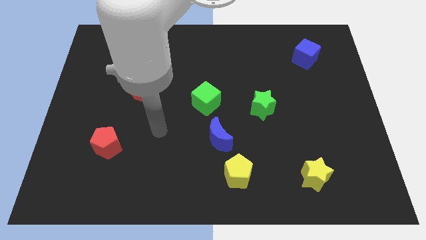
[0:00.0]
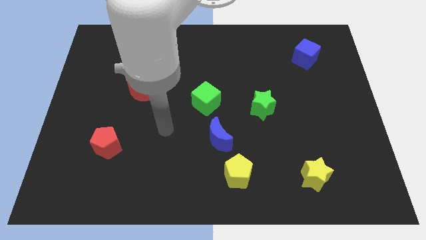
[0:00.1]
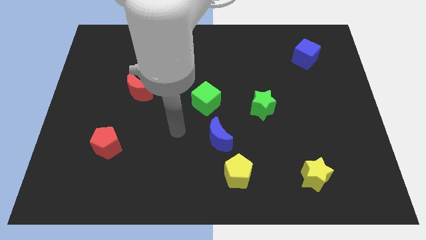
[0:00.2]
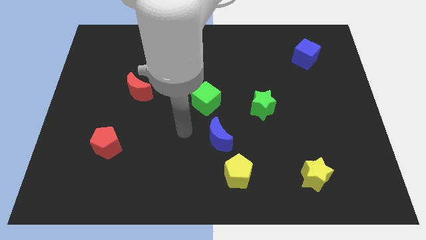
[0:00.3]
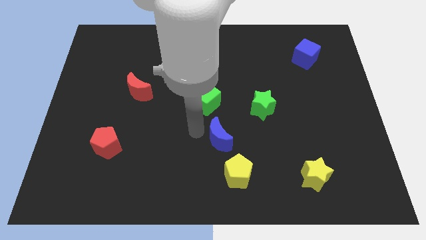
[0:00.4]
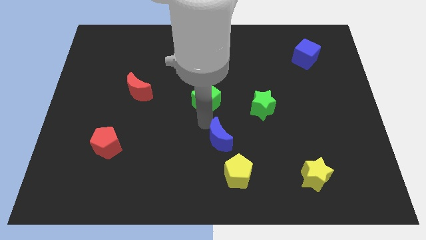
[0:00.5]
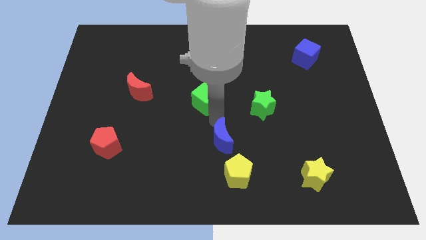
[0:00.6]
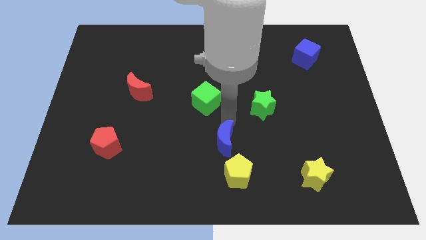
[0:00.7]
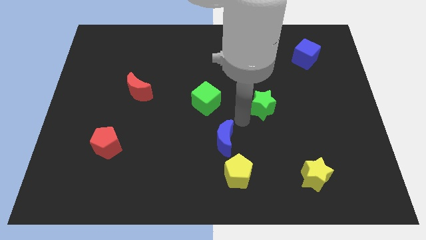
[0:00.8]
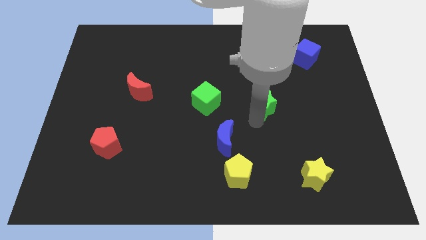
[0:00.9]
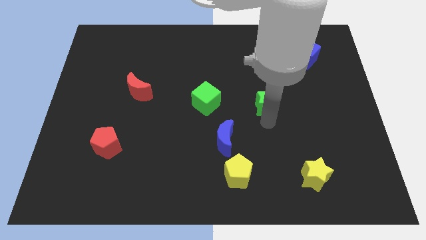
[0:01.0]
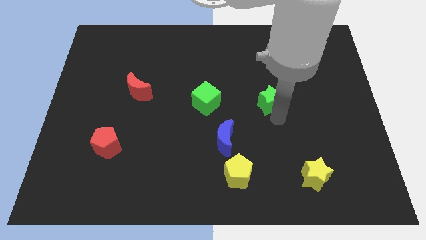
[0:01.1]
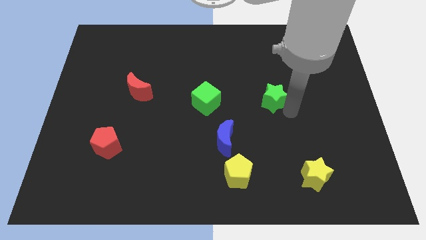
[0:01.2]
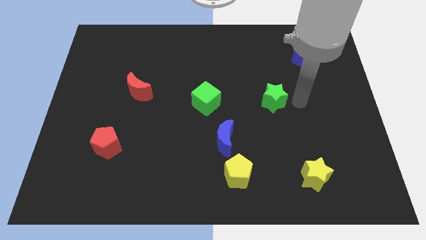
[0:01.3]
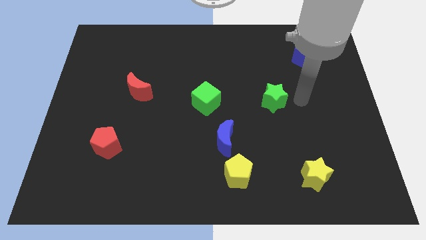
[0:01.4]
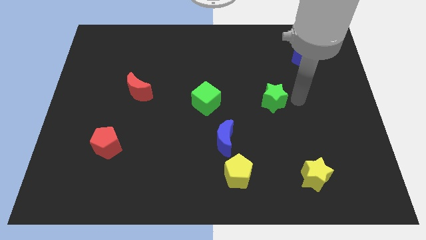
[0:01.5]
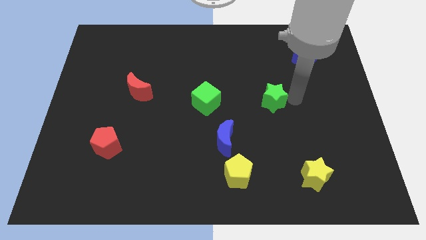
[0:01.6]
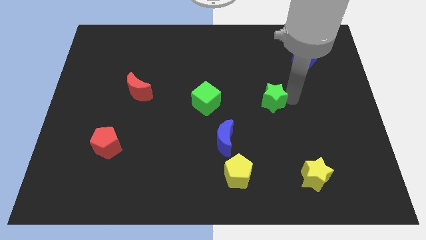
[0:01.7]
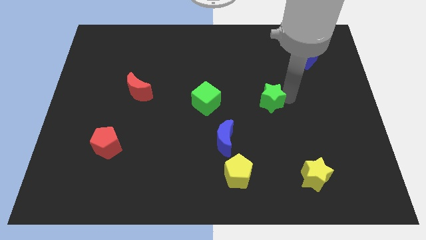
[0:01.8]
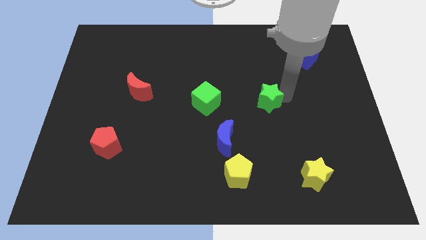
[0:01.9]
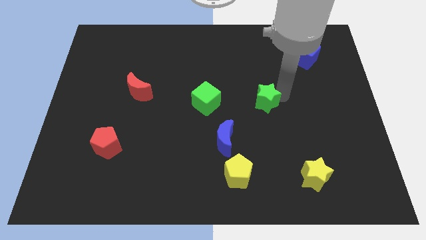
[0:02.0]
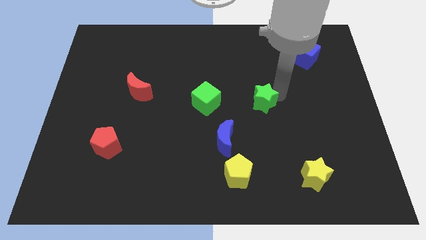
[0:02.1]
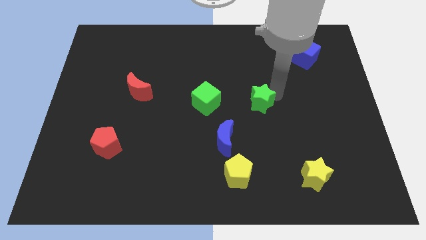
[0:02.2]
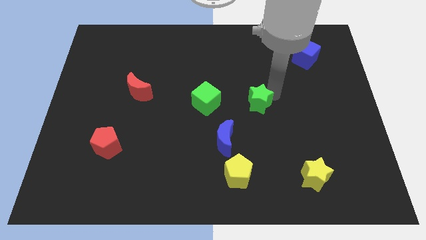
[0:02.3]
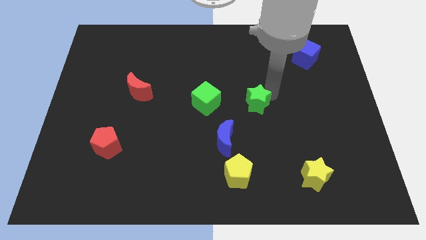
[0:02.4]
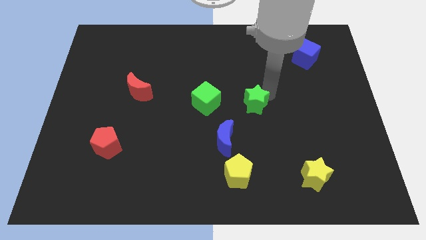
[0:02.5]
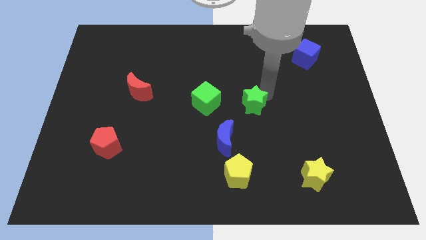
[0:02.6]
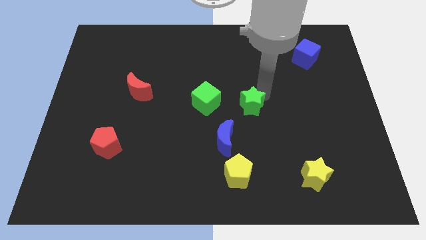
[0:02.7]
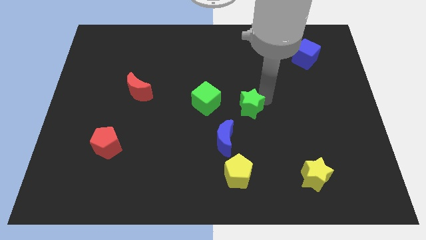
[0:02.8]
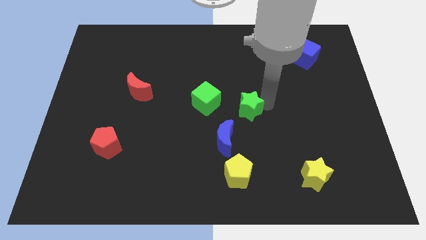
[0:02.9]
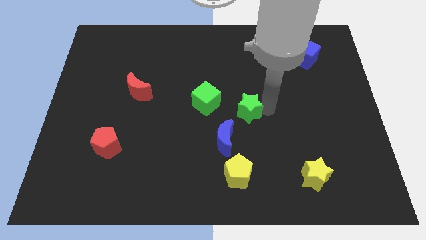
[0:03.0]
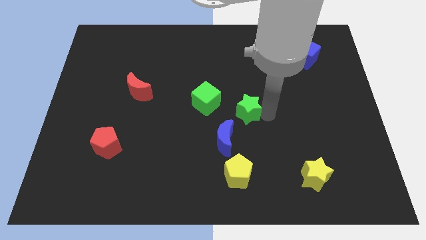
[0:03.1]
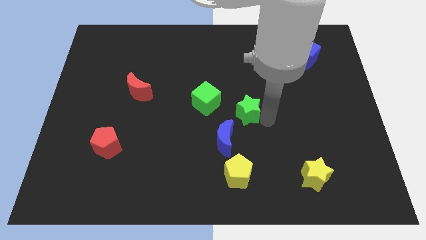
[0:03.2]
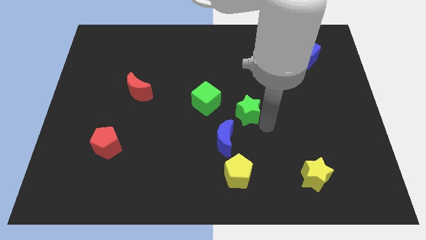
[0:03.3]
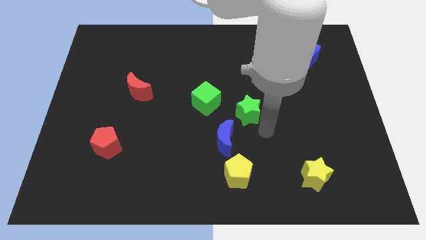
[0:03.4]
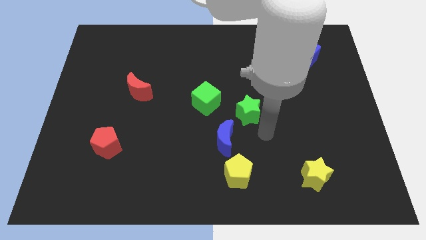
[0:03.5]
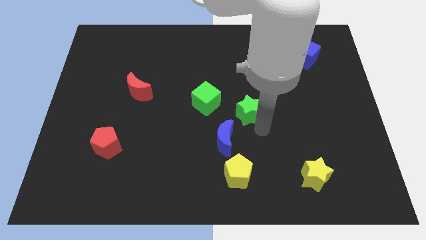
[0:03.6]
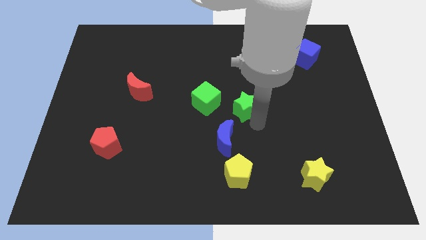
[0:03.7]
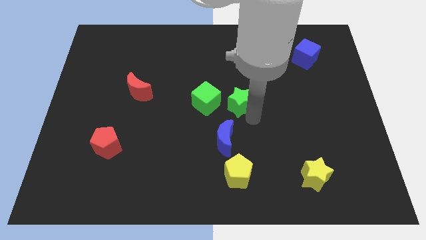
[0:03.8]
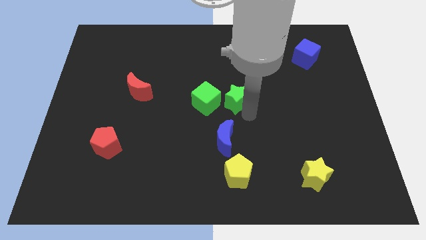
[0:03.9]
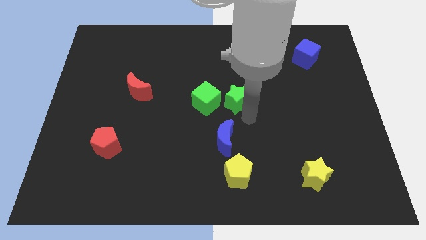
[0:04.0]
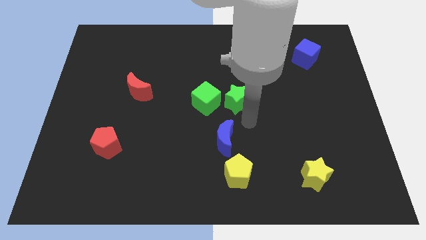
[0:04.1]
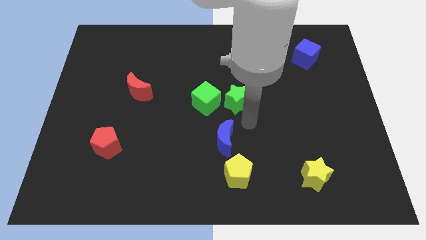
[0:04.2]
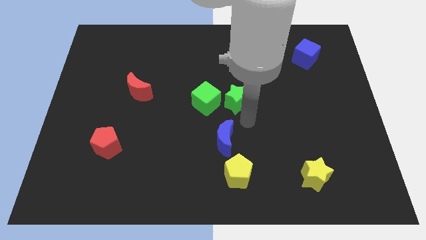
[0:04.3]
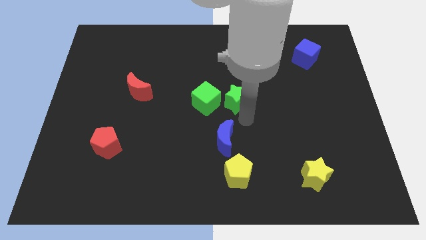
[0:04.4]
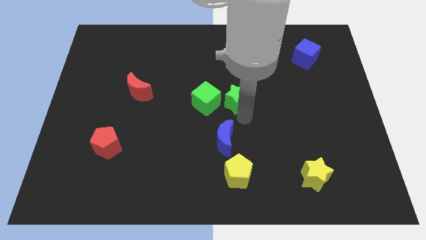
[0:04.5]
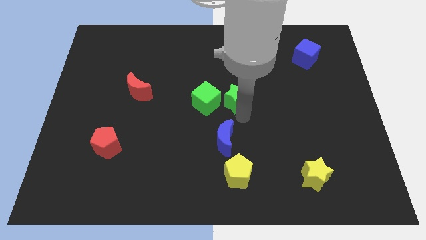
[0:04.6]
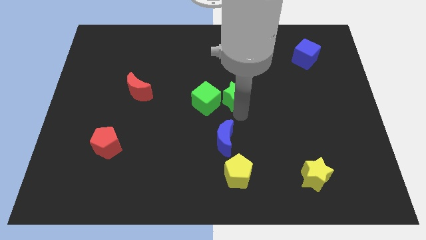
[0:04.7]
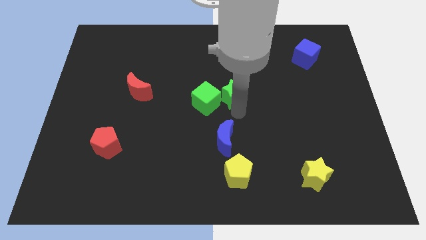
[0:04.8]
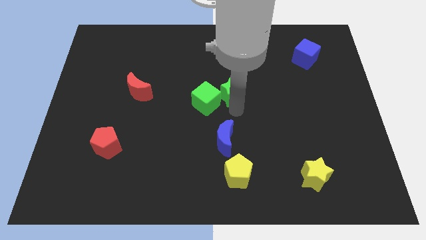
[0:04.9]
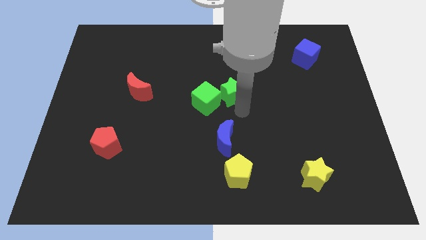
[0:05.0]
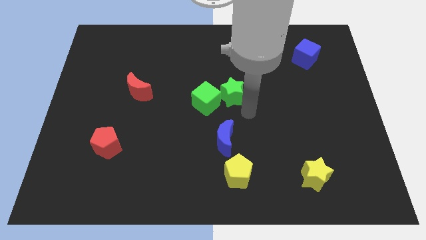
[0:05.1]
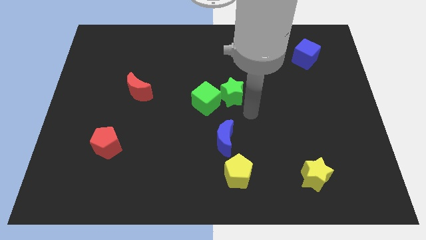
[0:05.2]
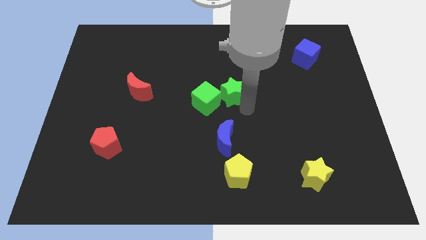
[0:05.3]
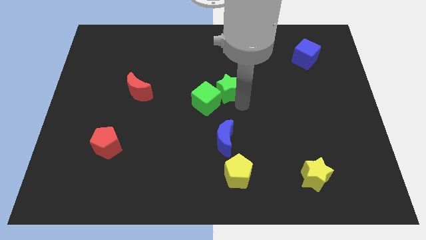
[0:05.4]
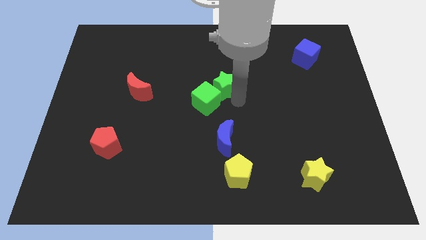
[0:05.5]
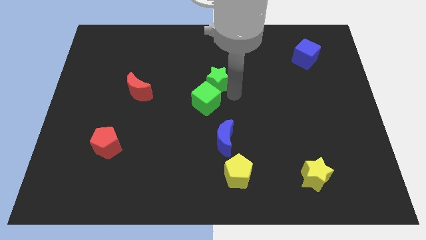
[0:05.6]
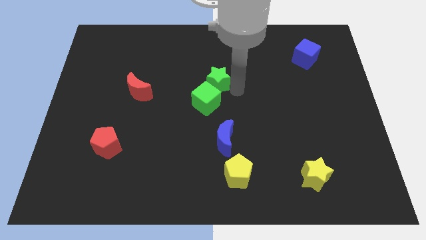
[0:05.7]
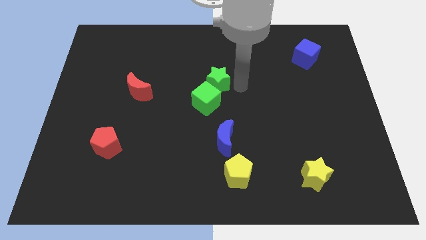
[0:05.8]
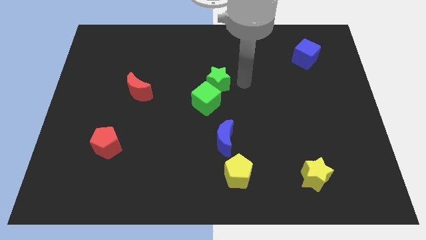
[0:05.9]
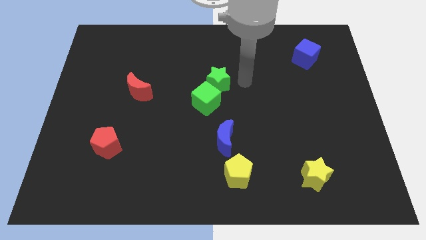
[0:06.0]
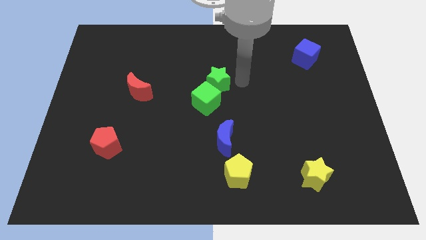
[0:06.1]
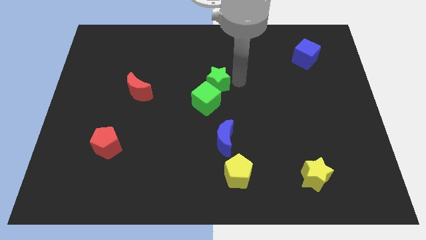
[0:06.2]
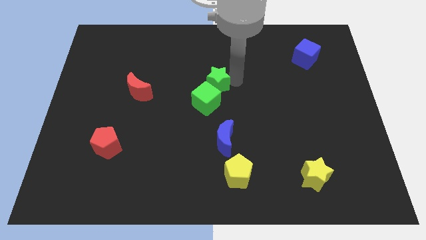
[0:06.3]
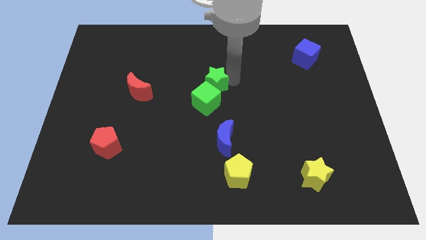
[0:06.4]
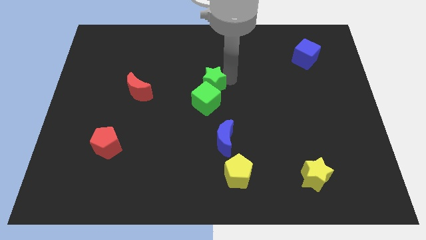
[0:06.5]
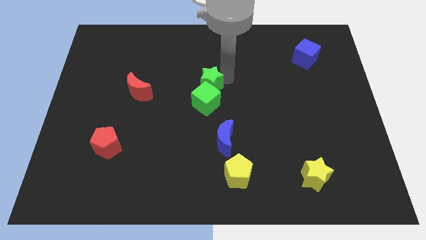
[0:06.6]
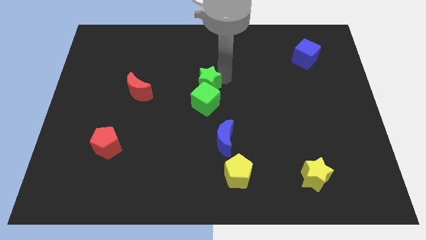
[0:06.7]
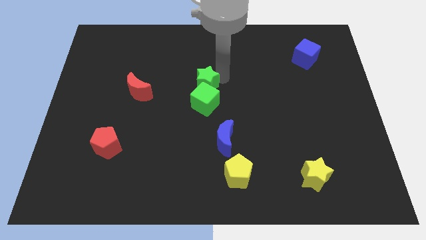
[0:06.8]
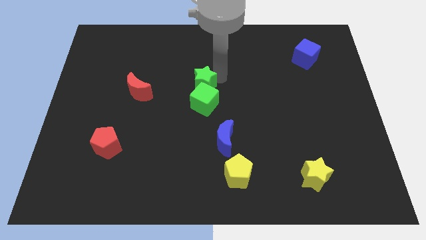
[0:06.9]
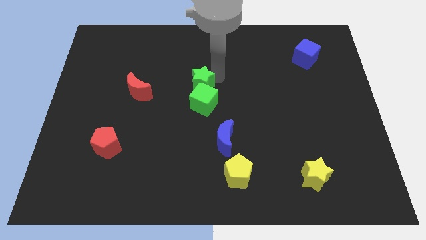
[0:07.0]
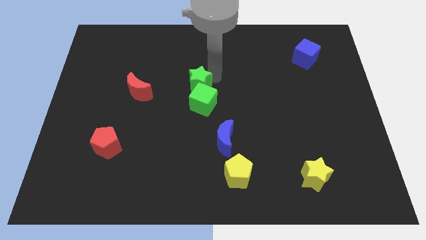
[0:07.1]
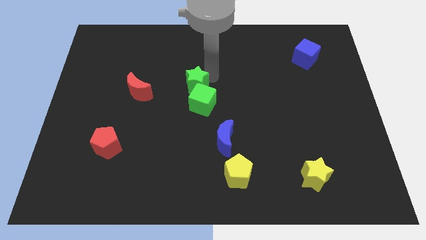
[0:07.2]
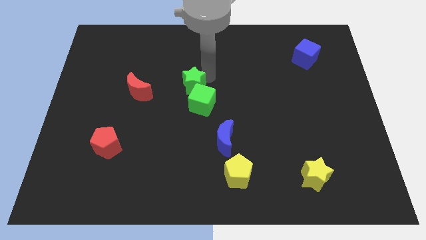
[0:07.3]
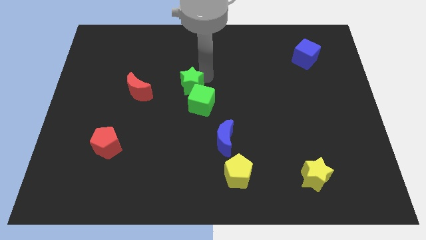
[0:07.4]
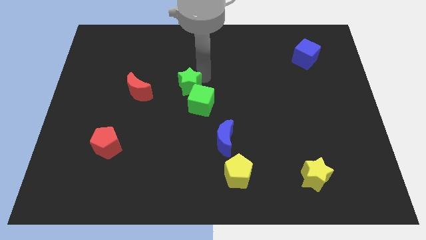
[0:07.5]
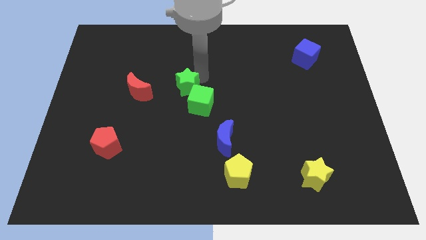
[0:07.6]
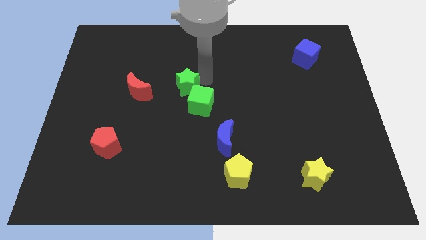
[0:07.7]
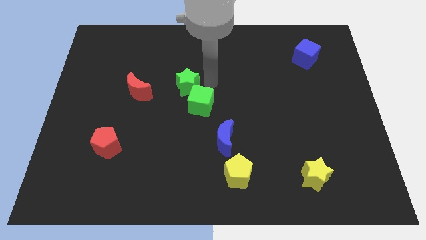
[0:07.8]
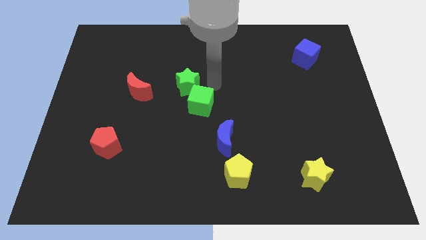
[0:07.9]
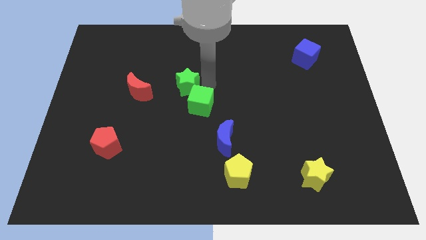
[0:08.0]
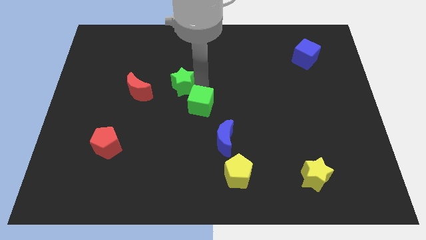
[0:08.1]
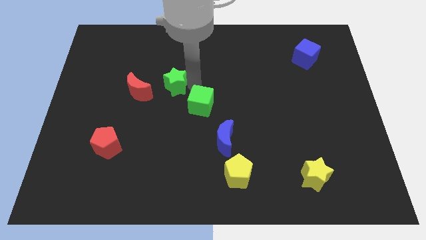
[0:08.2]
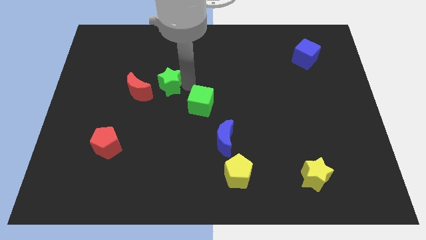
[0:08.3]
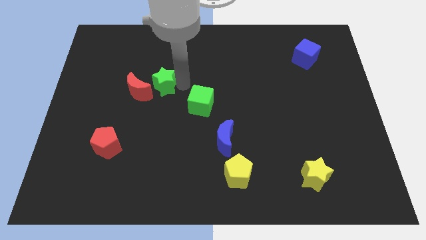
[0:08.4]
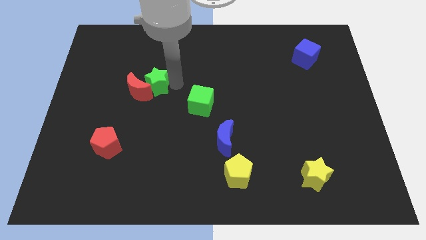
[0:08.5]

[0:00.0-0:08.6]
move the green star close to the red moon
